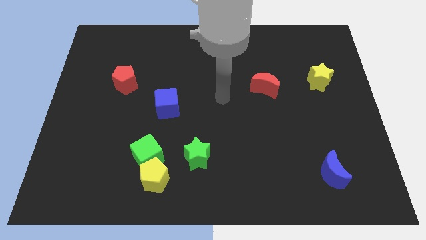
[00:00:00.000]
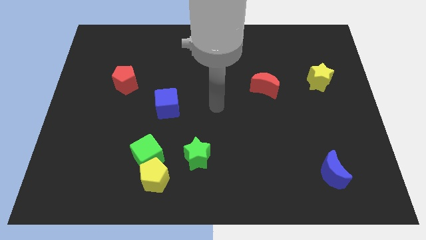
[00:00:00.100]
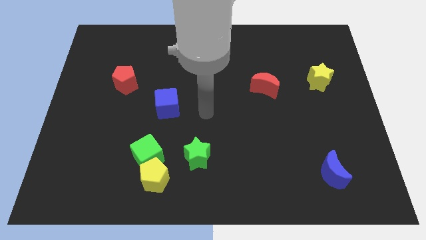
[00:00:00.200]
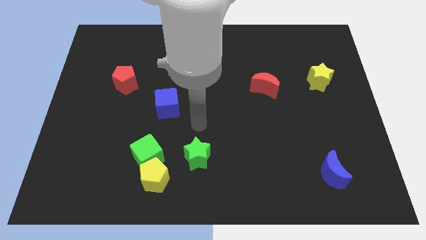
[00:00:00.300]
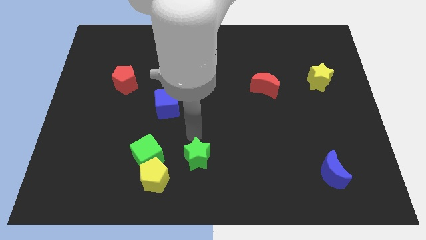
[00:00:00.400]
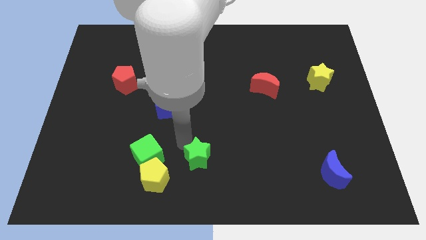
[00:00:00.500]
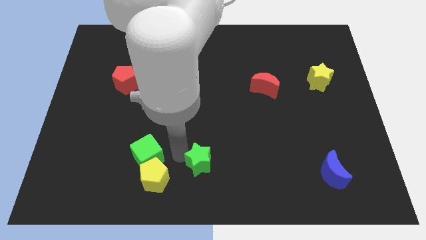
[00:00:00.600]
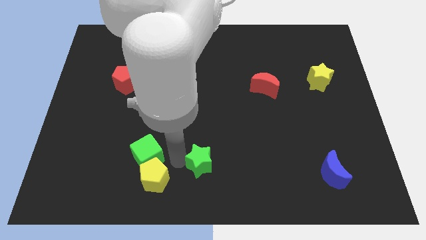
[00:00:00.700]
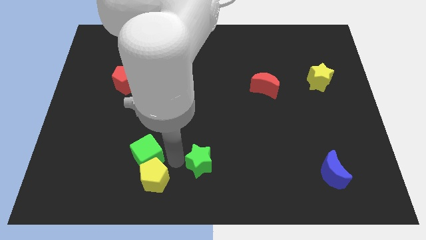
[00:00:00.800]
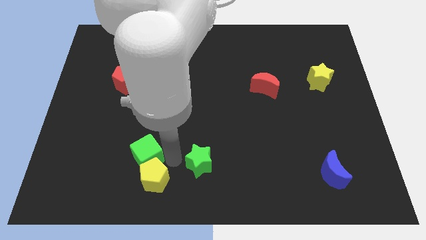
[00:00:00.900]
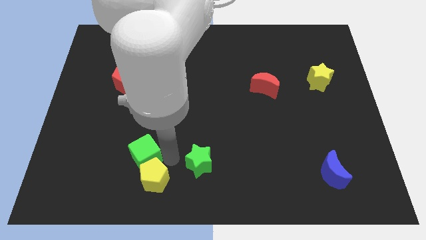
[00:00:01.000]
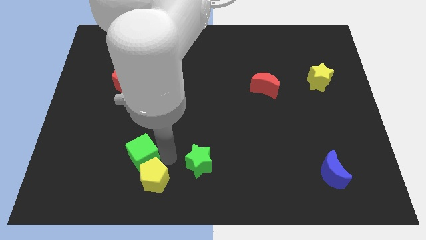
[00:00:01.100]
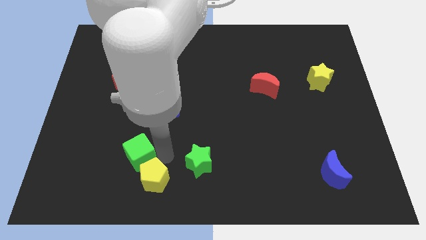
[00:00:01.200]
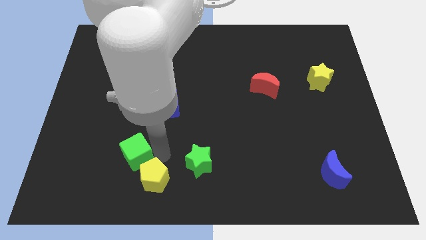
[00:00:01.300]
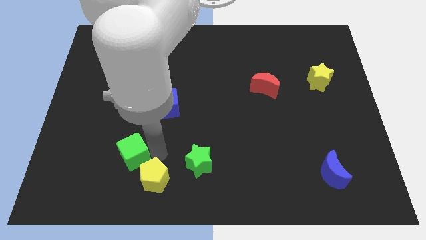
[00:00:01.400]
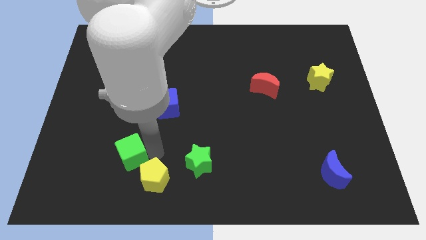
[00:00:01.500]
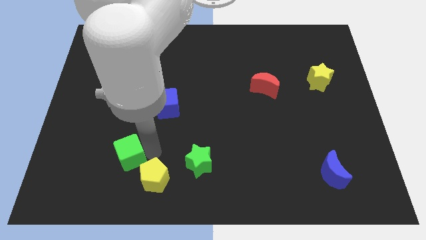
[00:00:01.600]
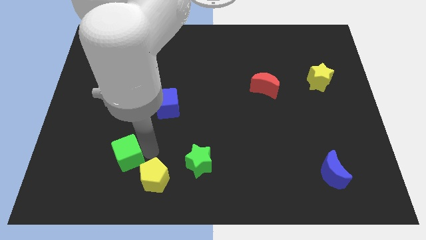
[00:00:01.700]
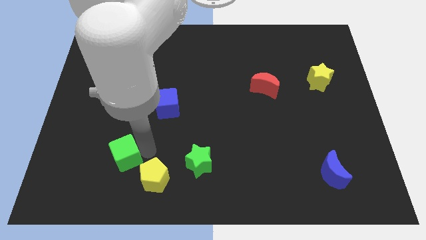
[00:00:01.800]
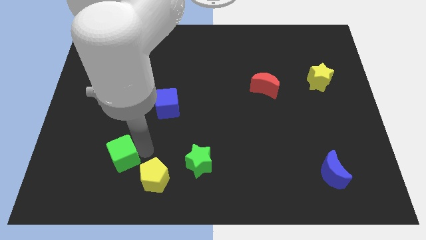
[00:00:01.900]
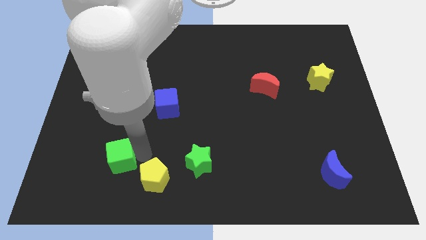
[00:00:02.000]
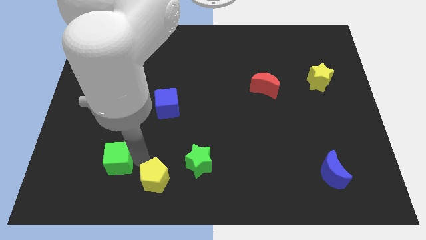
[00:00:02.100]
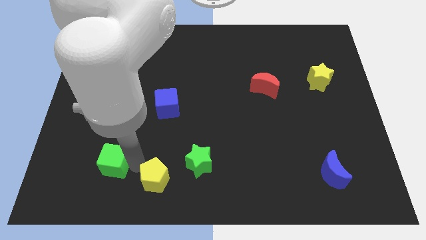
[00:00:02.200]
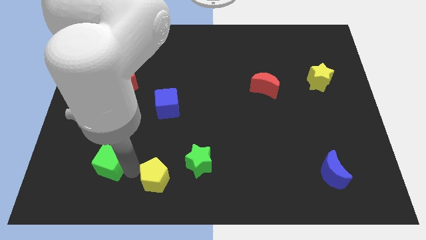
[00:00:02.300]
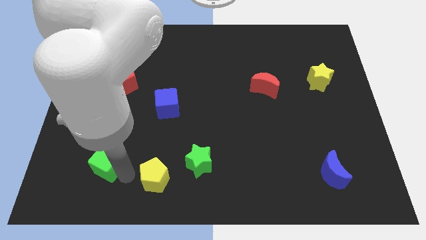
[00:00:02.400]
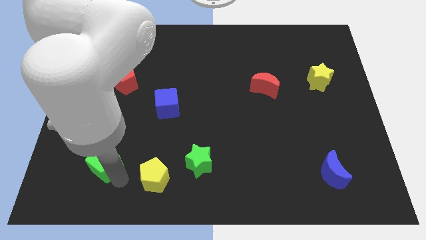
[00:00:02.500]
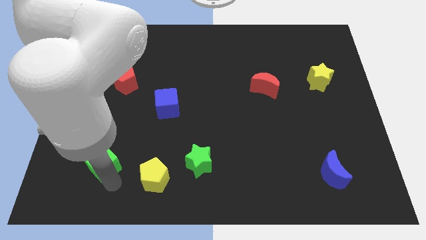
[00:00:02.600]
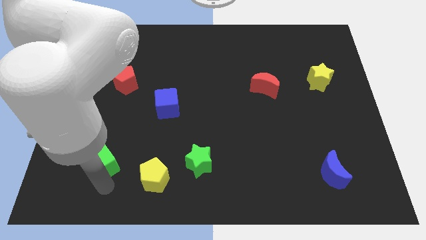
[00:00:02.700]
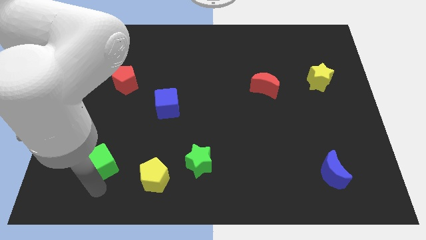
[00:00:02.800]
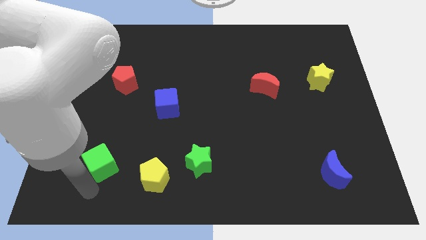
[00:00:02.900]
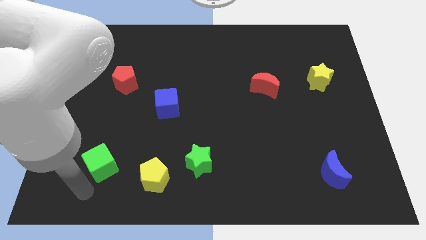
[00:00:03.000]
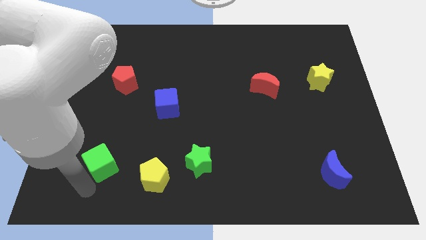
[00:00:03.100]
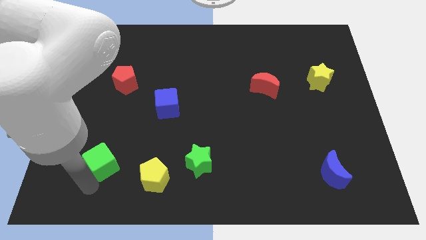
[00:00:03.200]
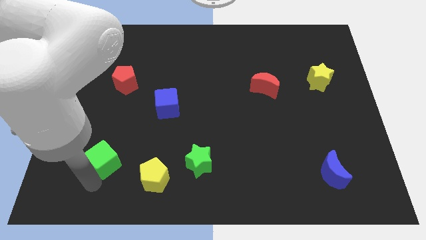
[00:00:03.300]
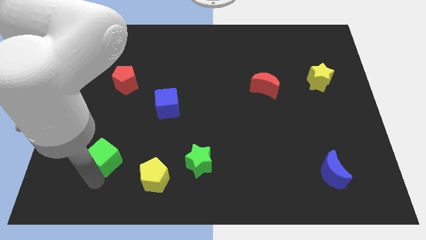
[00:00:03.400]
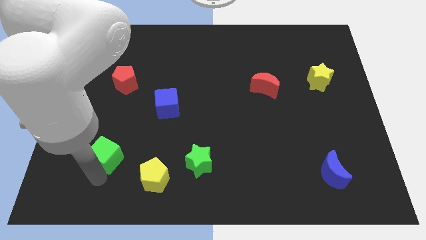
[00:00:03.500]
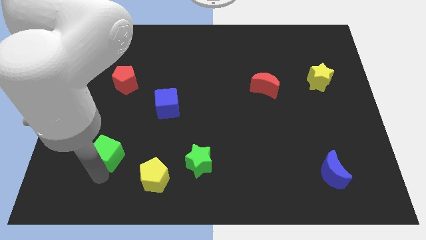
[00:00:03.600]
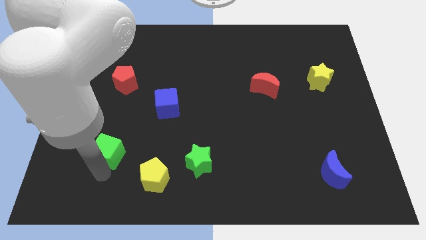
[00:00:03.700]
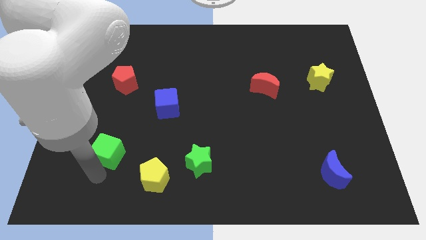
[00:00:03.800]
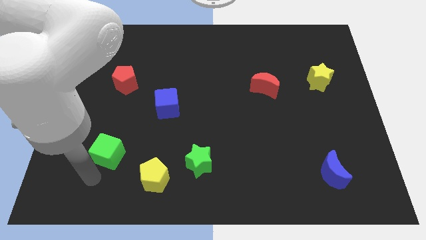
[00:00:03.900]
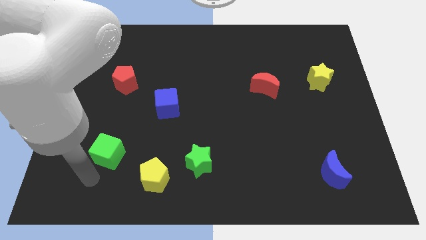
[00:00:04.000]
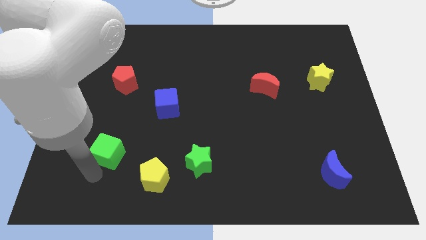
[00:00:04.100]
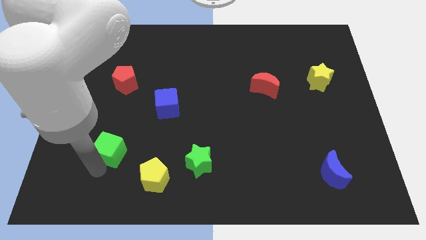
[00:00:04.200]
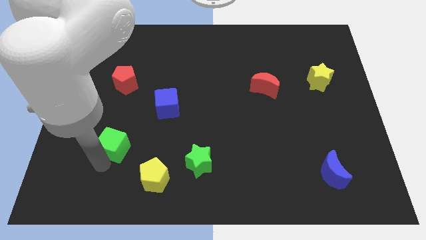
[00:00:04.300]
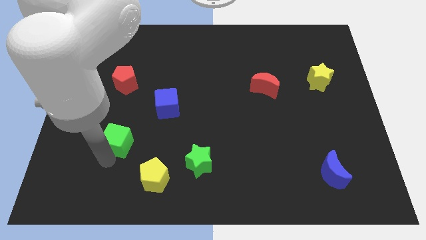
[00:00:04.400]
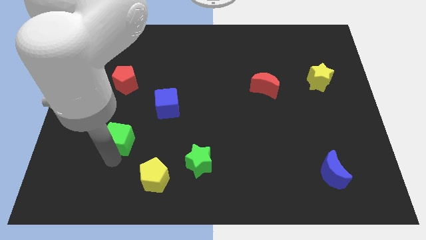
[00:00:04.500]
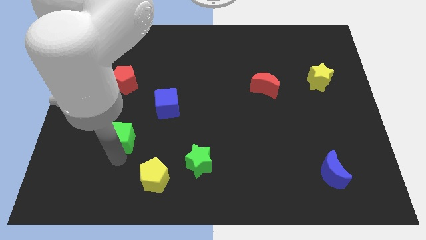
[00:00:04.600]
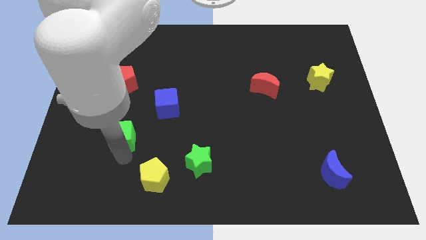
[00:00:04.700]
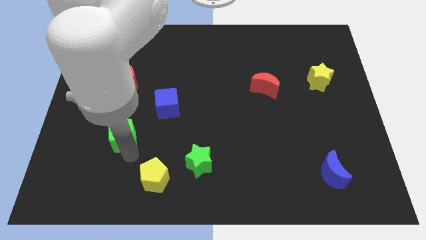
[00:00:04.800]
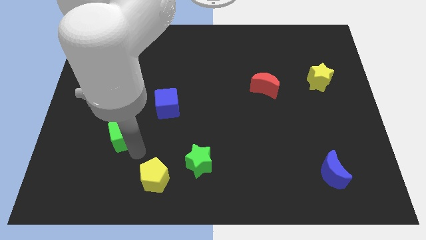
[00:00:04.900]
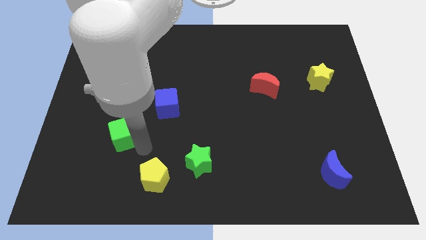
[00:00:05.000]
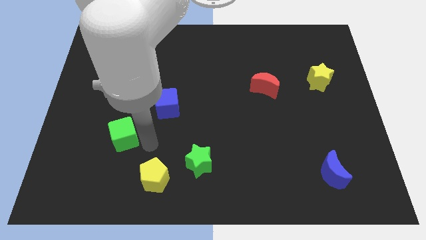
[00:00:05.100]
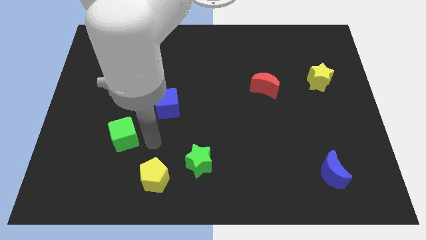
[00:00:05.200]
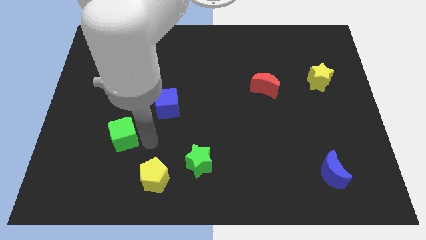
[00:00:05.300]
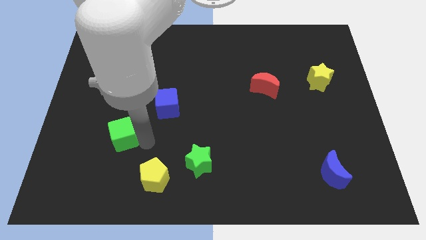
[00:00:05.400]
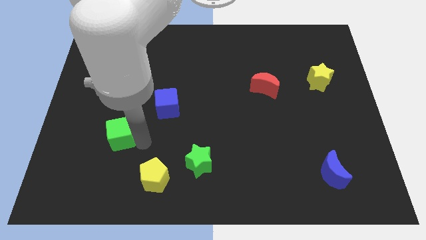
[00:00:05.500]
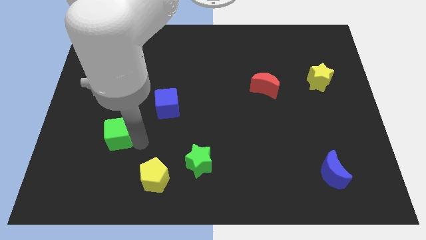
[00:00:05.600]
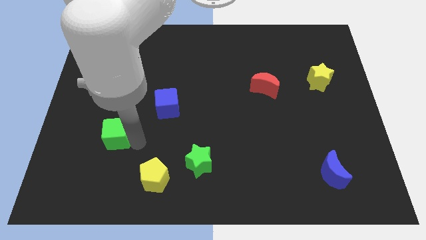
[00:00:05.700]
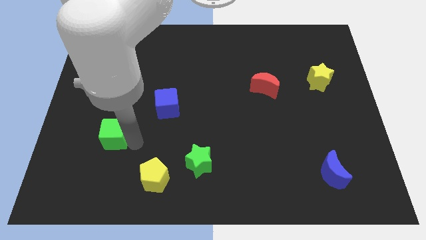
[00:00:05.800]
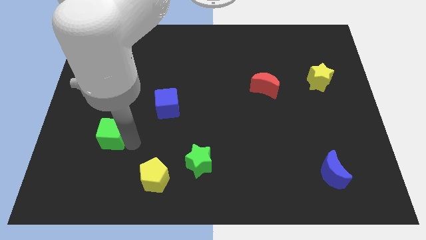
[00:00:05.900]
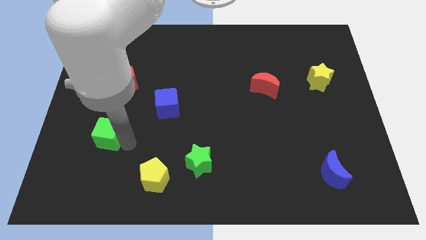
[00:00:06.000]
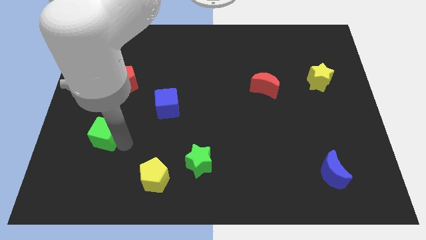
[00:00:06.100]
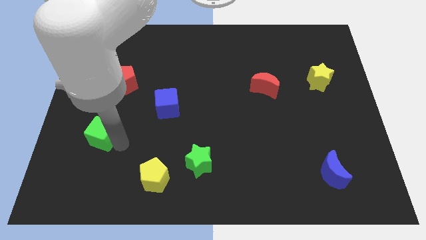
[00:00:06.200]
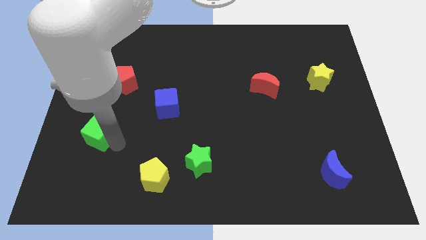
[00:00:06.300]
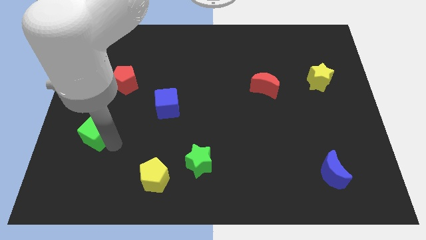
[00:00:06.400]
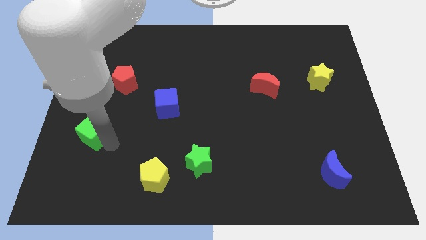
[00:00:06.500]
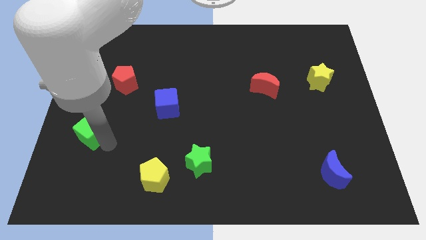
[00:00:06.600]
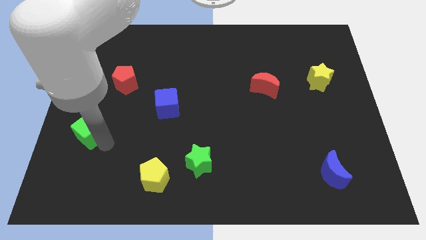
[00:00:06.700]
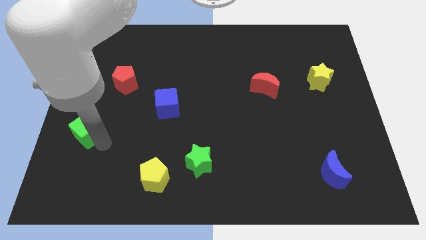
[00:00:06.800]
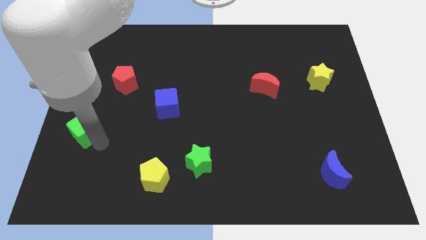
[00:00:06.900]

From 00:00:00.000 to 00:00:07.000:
slide the green cube to the left side
